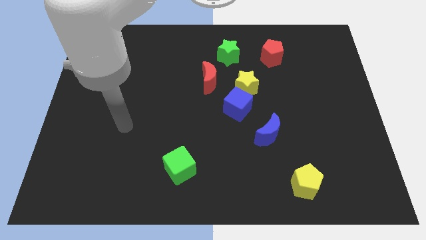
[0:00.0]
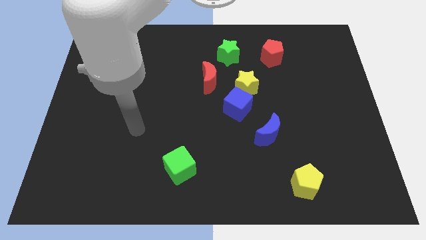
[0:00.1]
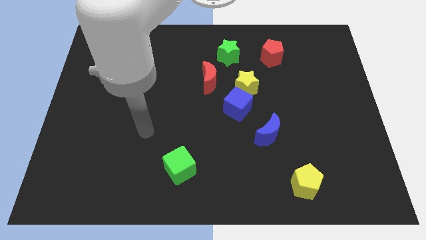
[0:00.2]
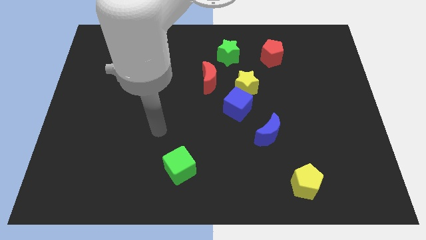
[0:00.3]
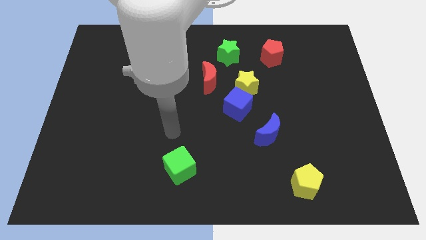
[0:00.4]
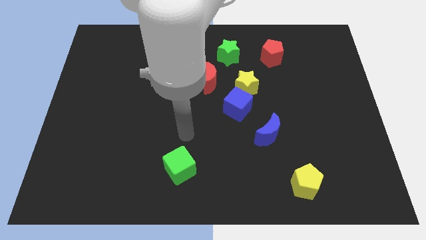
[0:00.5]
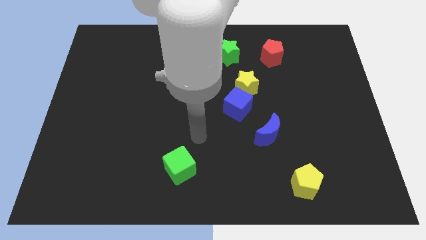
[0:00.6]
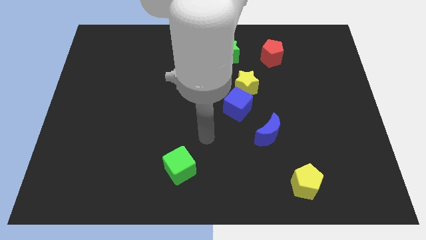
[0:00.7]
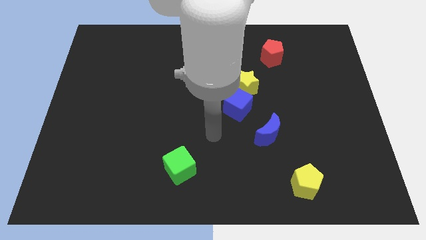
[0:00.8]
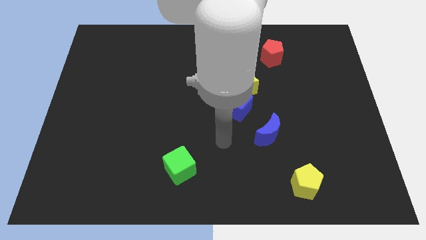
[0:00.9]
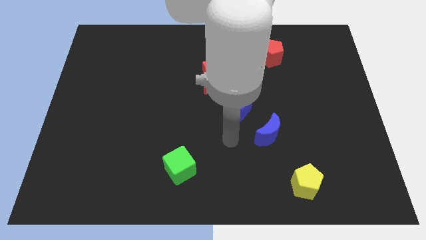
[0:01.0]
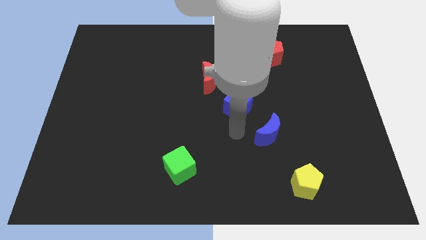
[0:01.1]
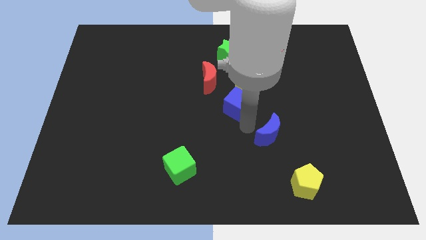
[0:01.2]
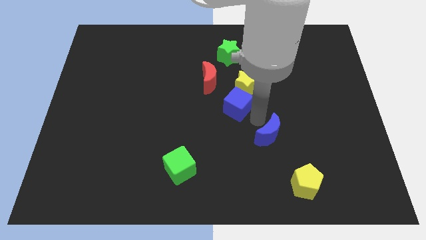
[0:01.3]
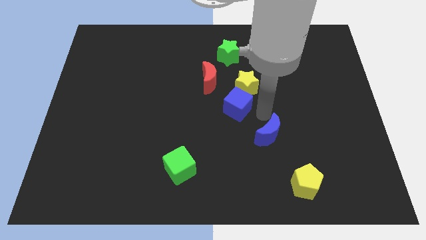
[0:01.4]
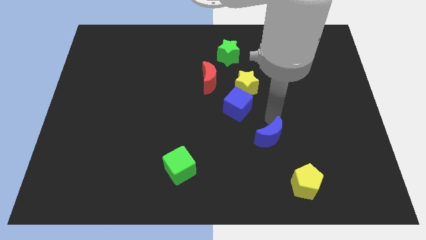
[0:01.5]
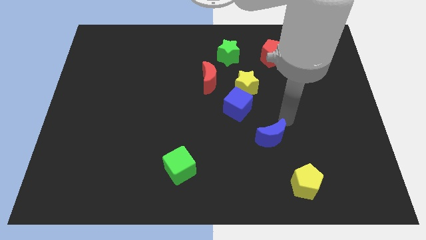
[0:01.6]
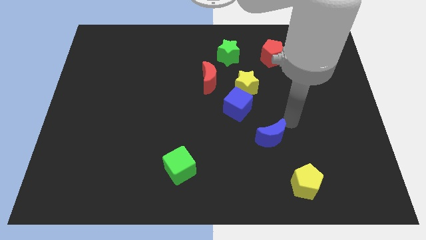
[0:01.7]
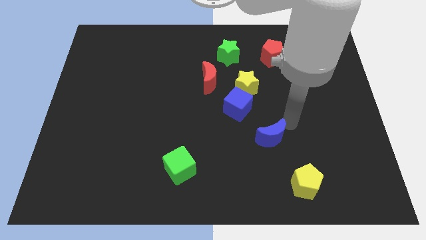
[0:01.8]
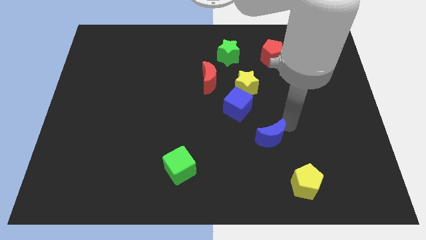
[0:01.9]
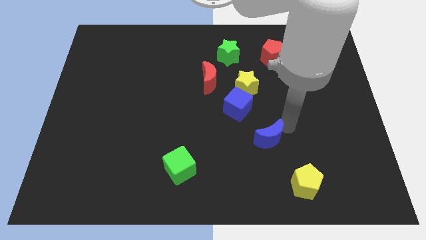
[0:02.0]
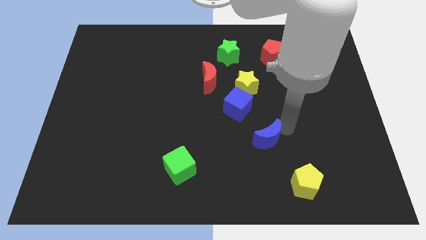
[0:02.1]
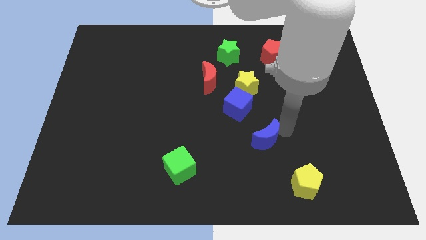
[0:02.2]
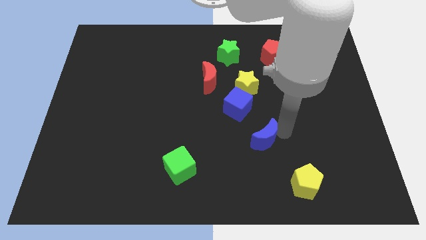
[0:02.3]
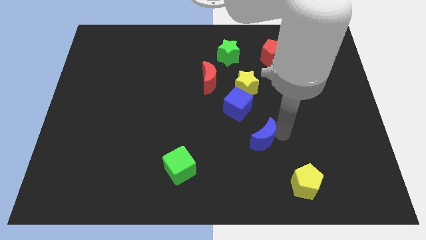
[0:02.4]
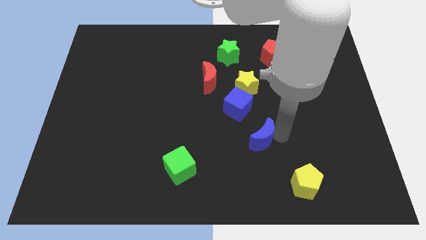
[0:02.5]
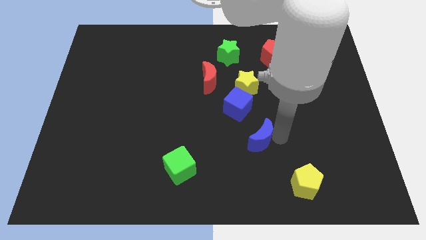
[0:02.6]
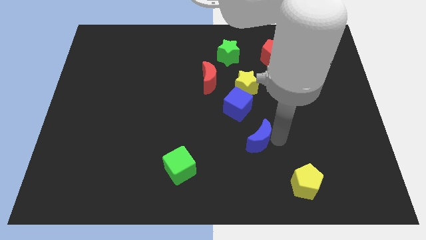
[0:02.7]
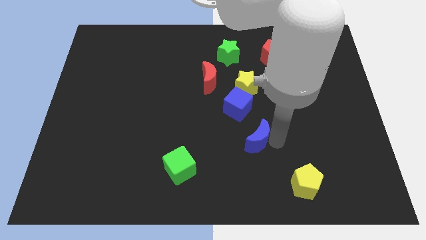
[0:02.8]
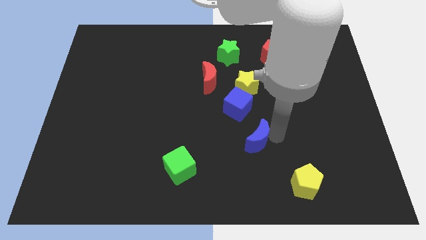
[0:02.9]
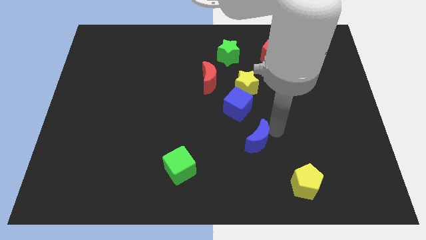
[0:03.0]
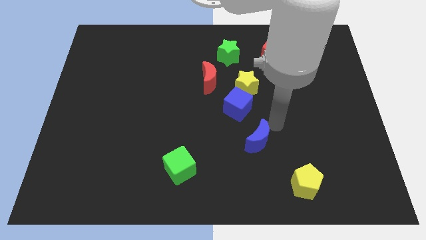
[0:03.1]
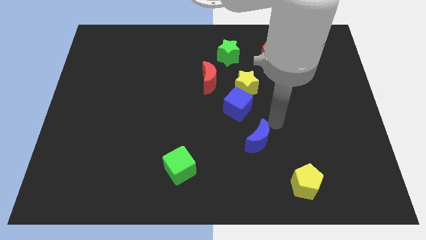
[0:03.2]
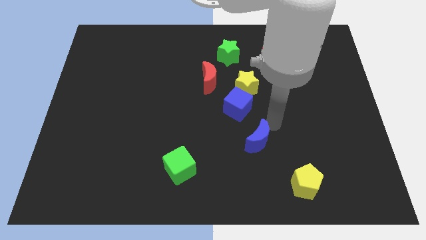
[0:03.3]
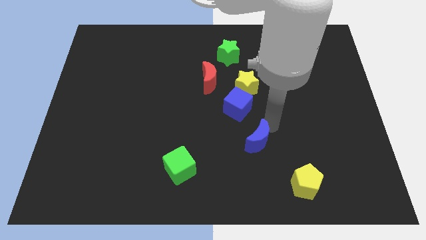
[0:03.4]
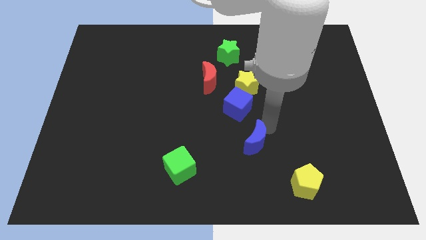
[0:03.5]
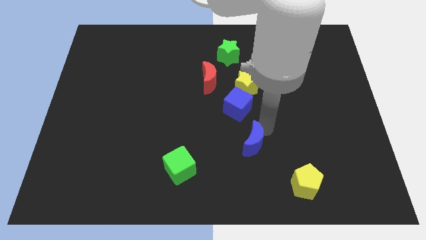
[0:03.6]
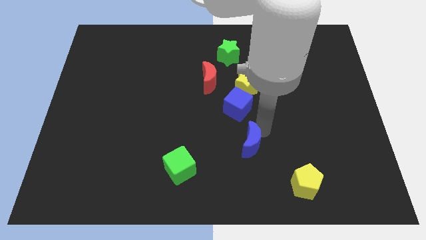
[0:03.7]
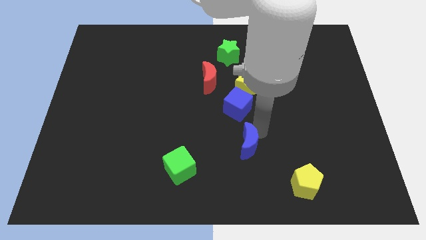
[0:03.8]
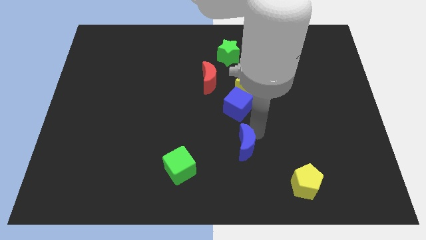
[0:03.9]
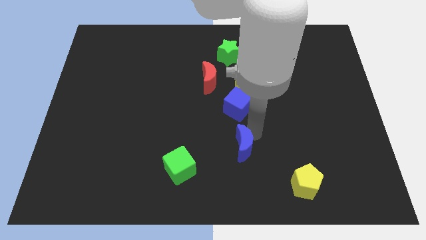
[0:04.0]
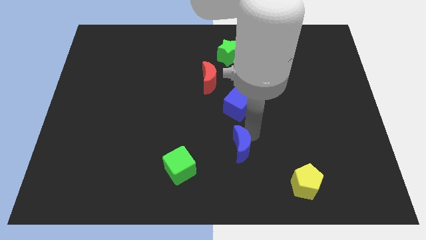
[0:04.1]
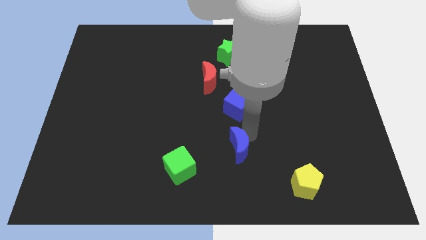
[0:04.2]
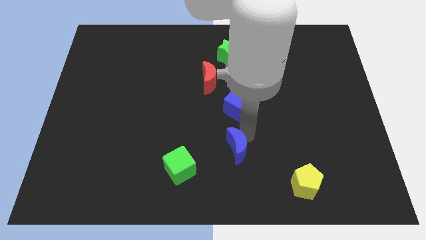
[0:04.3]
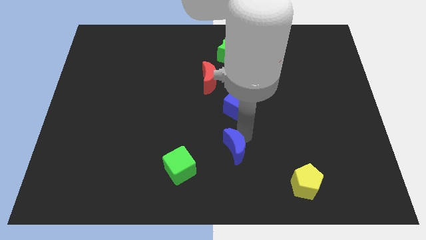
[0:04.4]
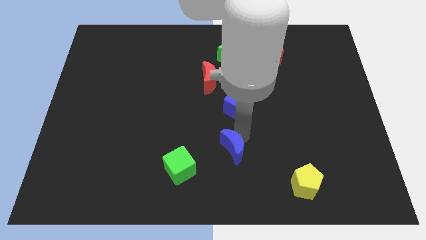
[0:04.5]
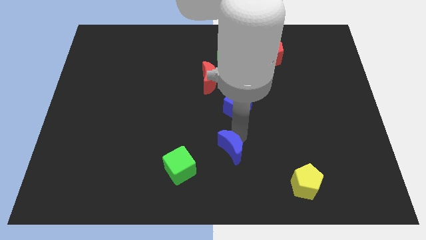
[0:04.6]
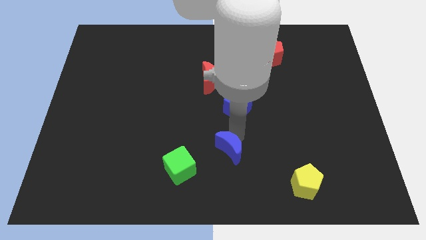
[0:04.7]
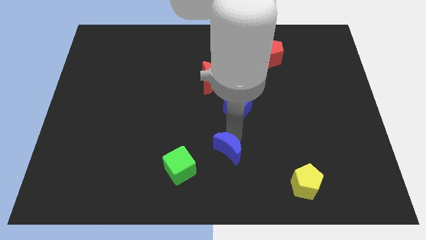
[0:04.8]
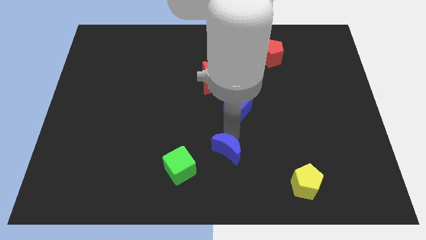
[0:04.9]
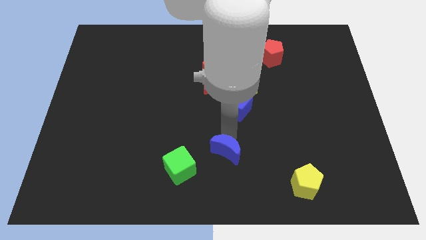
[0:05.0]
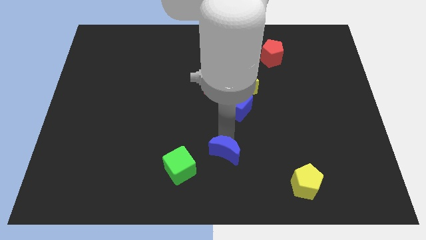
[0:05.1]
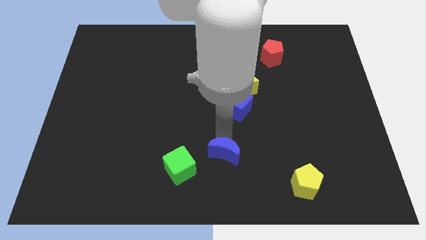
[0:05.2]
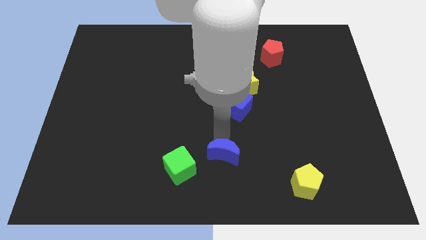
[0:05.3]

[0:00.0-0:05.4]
slide the blue moon to the bottom

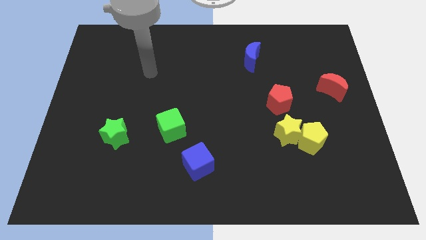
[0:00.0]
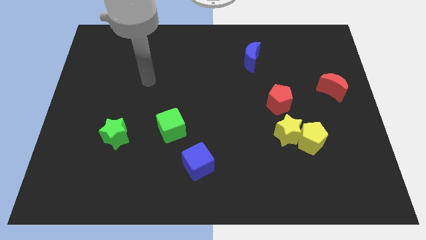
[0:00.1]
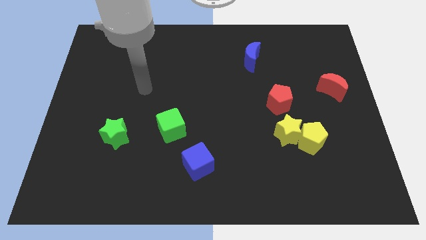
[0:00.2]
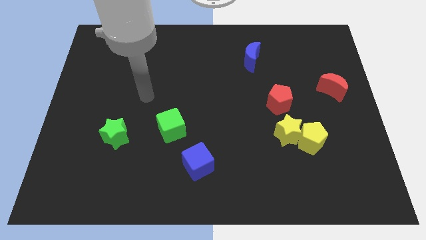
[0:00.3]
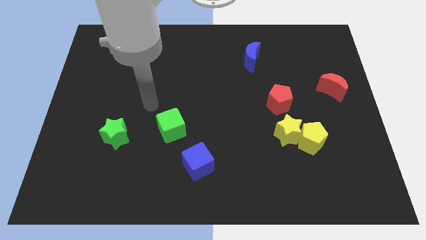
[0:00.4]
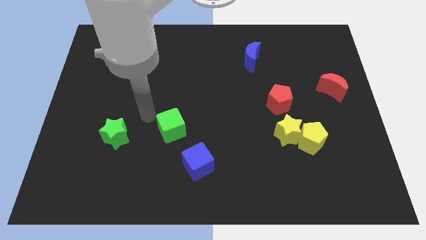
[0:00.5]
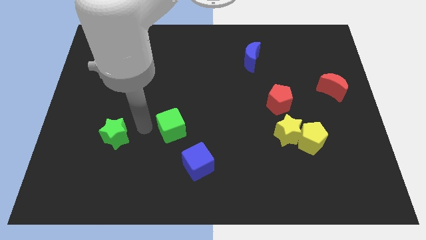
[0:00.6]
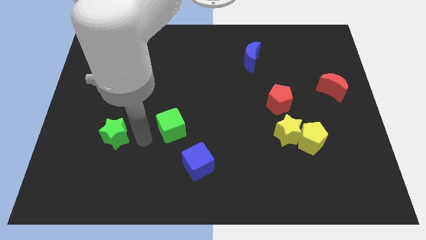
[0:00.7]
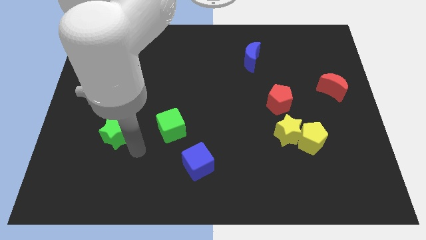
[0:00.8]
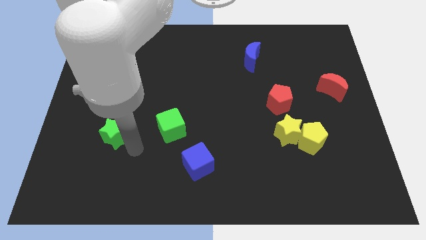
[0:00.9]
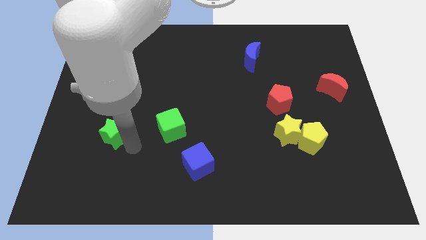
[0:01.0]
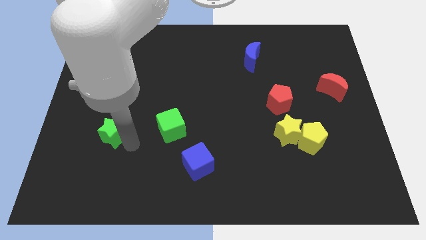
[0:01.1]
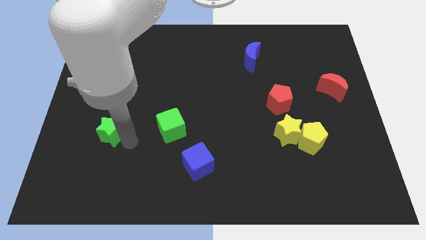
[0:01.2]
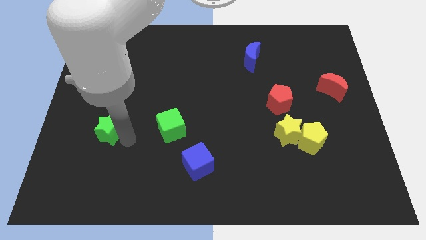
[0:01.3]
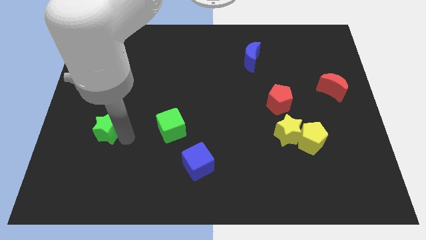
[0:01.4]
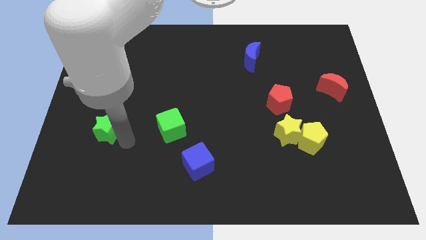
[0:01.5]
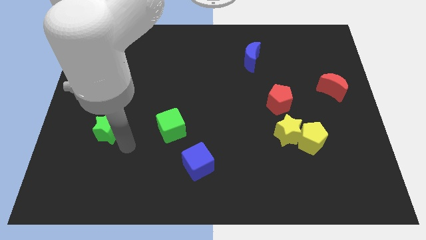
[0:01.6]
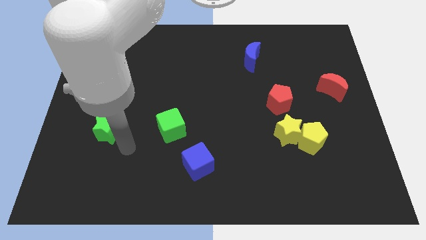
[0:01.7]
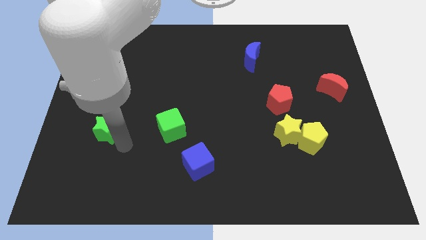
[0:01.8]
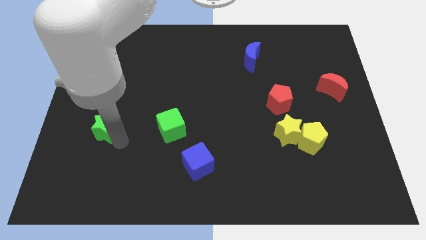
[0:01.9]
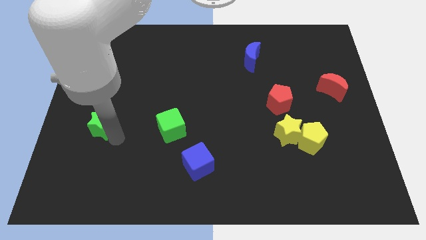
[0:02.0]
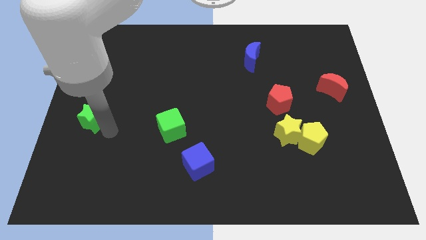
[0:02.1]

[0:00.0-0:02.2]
slide the green star to the left side of the board
